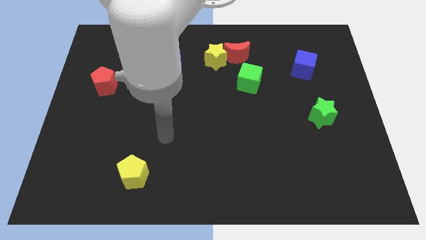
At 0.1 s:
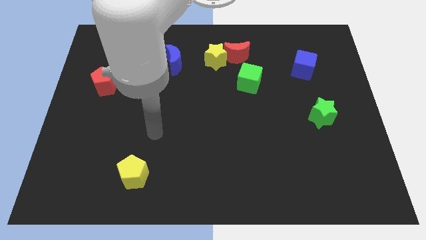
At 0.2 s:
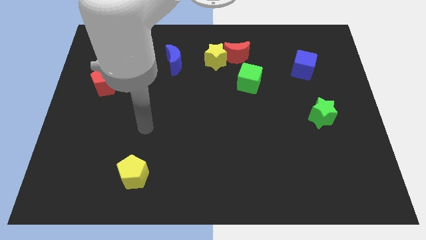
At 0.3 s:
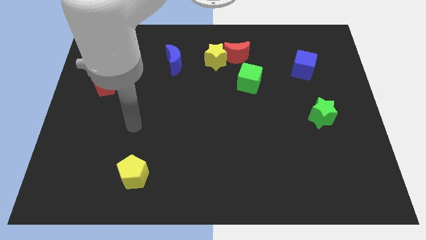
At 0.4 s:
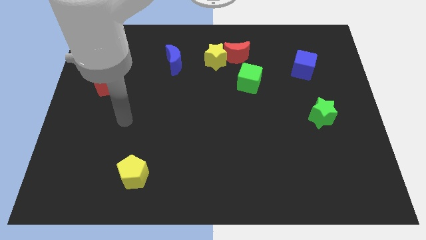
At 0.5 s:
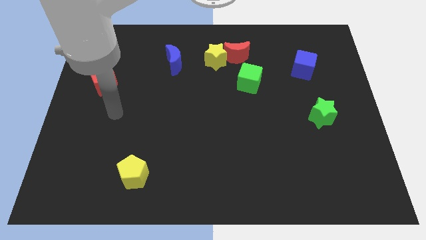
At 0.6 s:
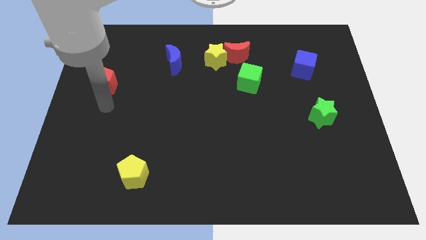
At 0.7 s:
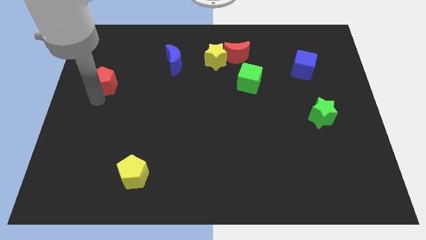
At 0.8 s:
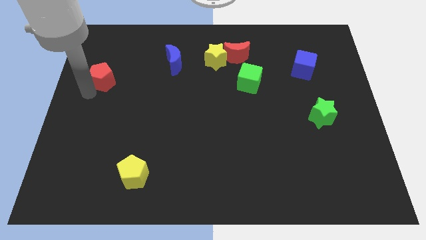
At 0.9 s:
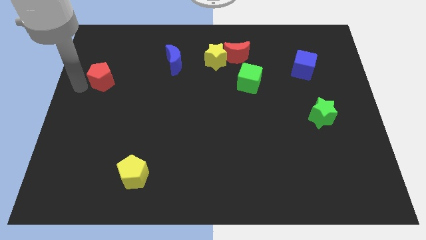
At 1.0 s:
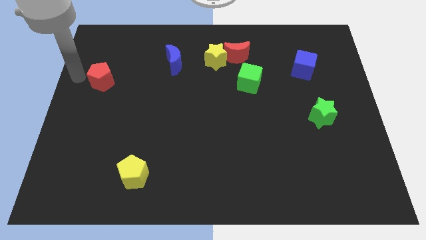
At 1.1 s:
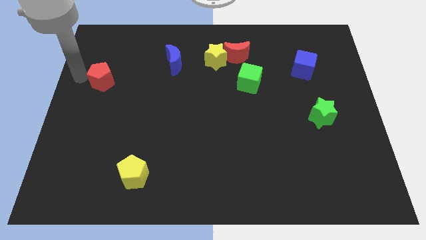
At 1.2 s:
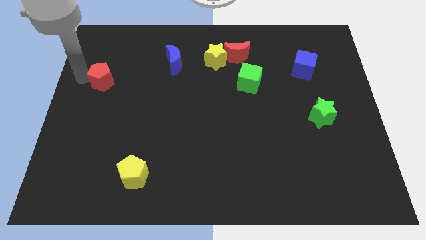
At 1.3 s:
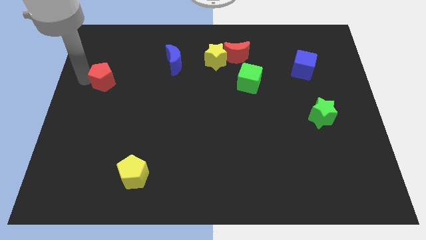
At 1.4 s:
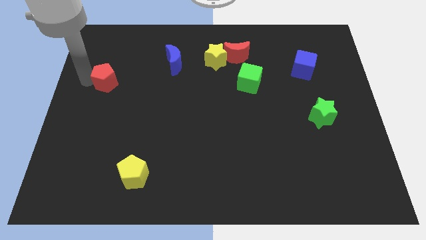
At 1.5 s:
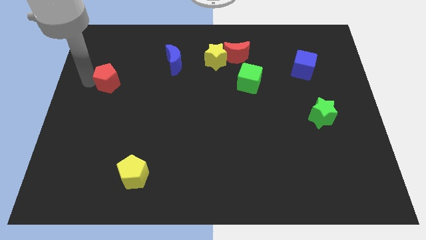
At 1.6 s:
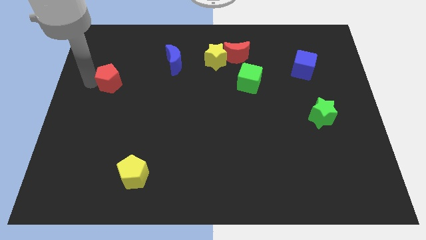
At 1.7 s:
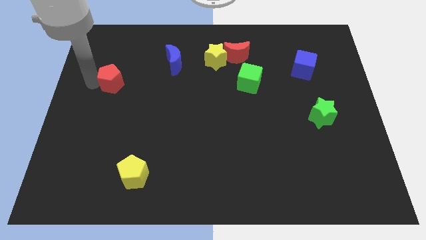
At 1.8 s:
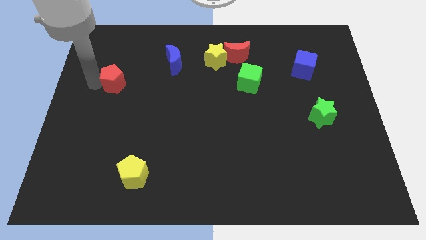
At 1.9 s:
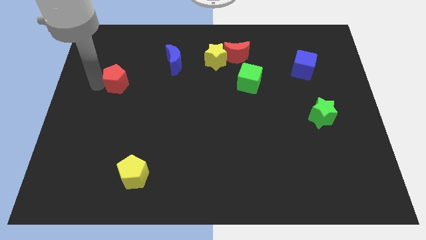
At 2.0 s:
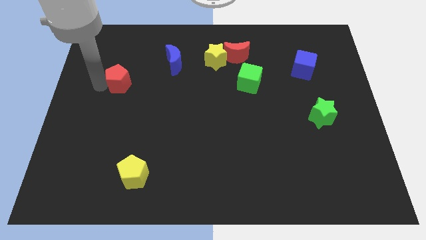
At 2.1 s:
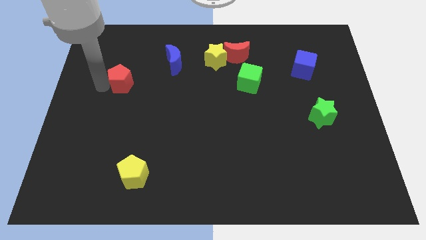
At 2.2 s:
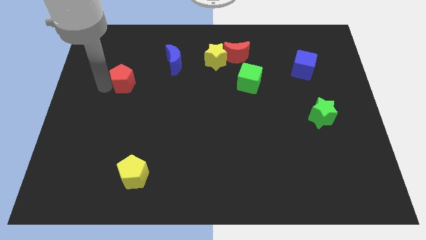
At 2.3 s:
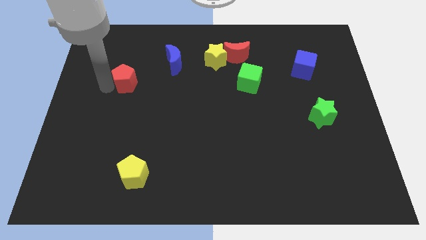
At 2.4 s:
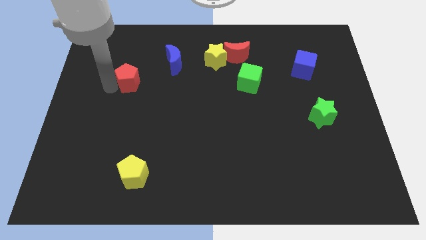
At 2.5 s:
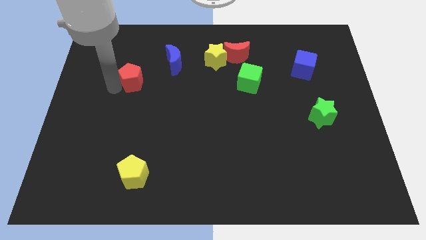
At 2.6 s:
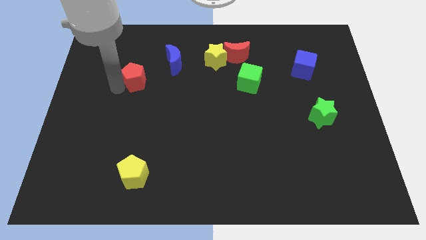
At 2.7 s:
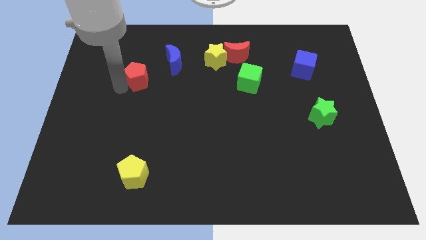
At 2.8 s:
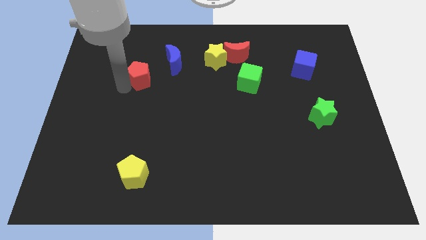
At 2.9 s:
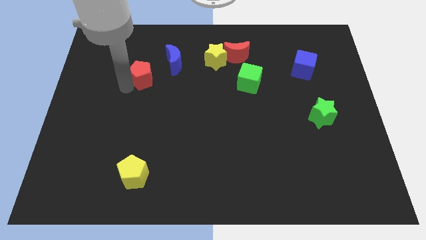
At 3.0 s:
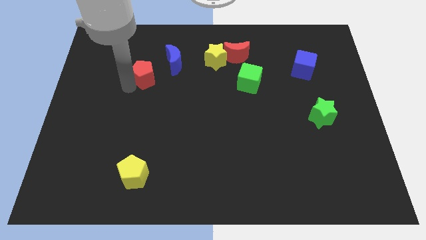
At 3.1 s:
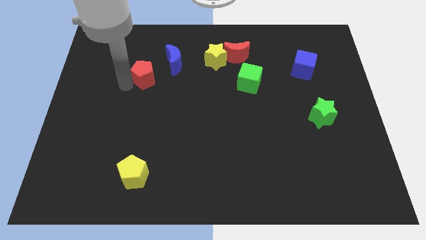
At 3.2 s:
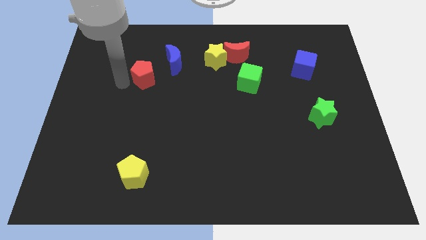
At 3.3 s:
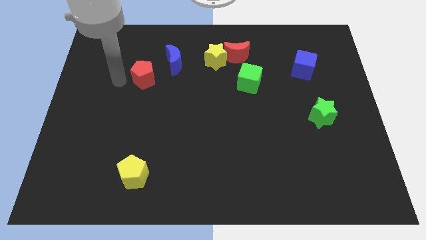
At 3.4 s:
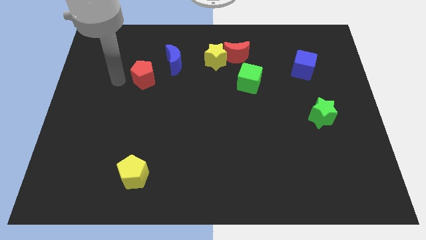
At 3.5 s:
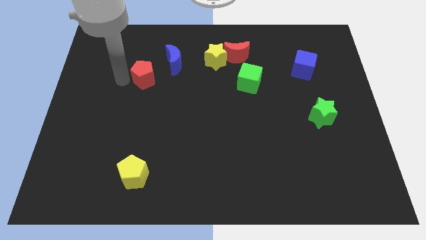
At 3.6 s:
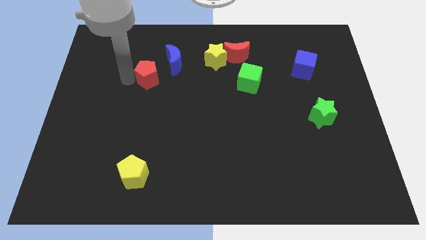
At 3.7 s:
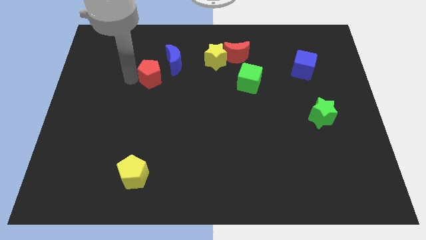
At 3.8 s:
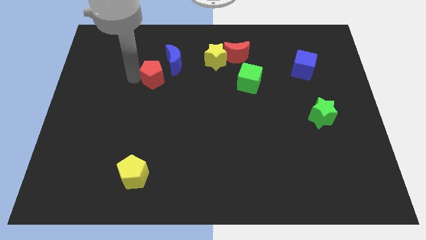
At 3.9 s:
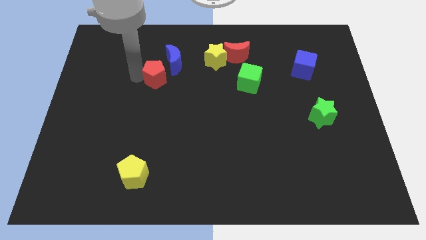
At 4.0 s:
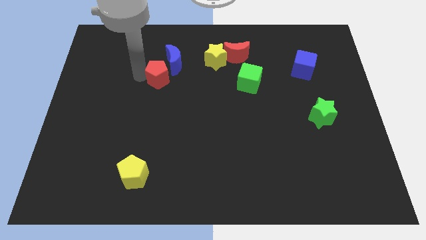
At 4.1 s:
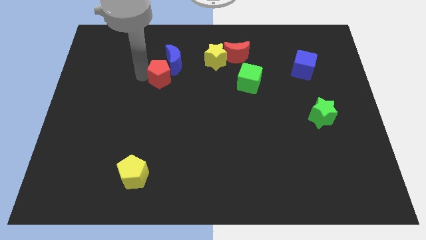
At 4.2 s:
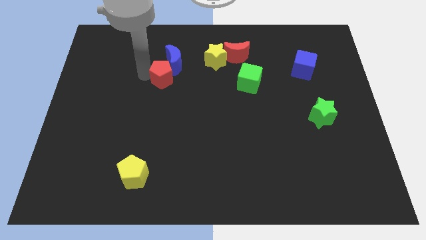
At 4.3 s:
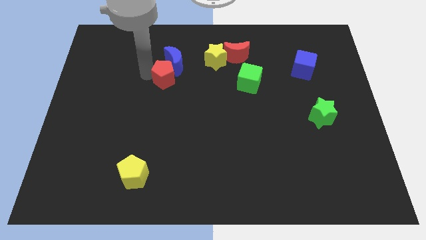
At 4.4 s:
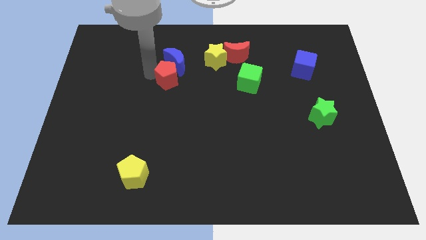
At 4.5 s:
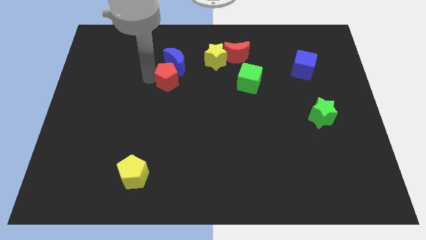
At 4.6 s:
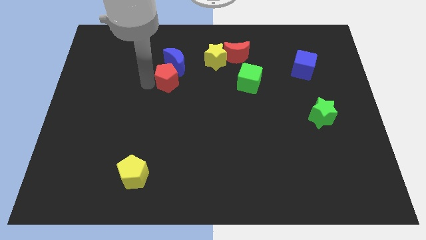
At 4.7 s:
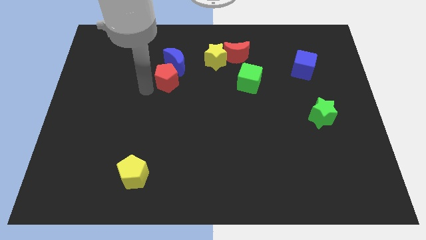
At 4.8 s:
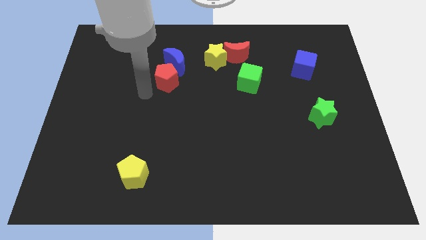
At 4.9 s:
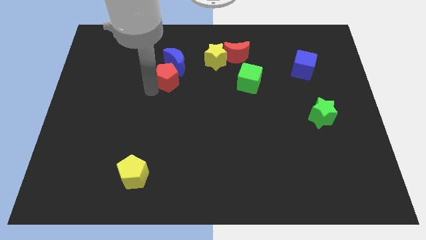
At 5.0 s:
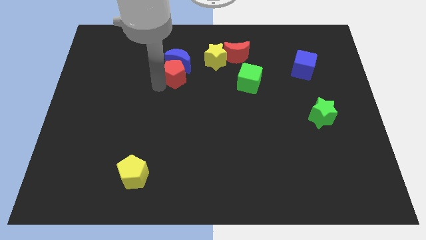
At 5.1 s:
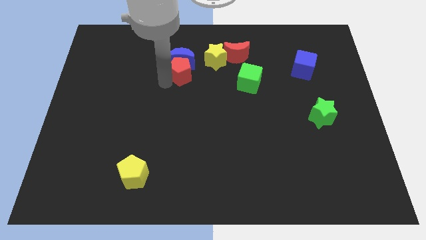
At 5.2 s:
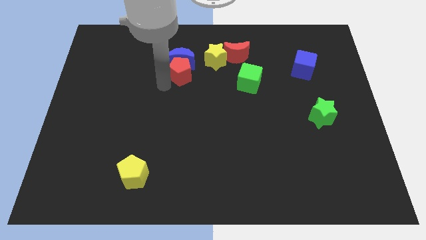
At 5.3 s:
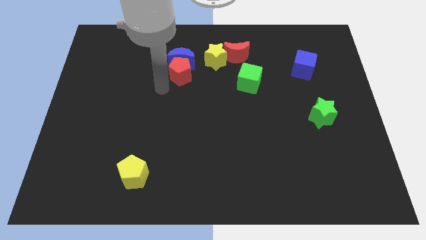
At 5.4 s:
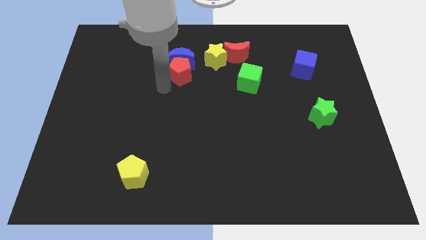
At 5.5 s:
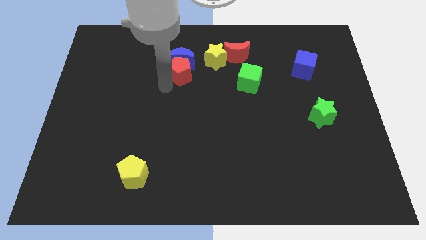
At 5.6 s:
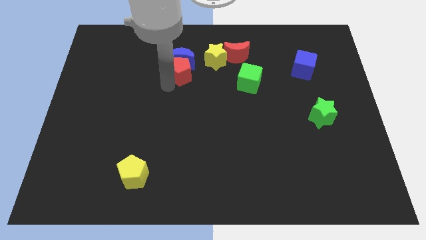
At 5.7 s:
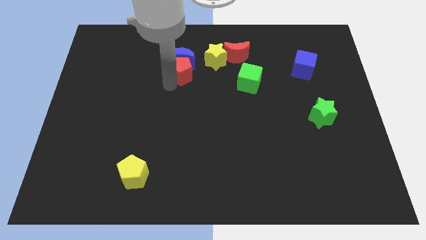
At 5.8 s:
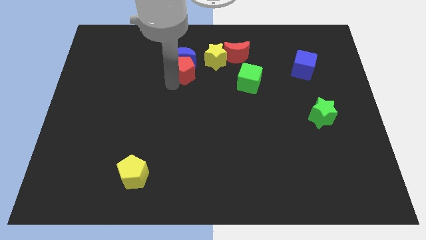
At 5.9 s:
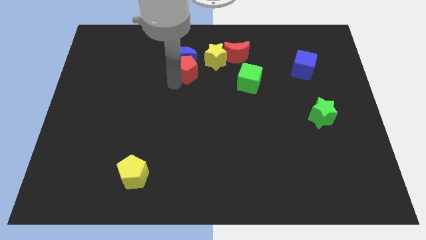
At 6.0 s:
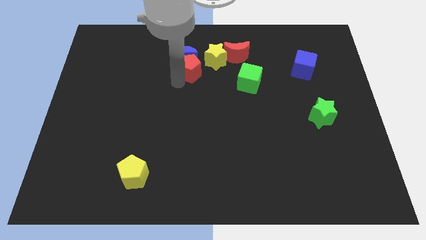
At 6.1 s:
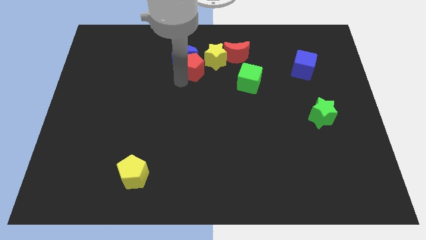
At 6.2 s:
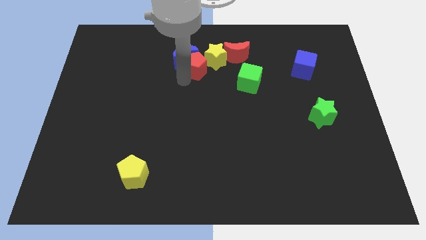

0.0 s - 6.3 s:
push the red pentagon towards the yellow star
